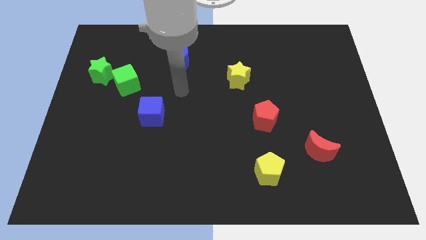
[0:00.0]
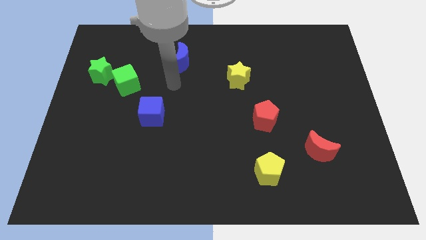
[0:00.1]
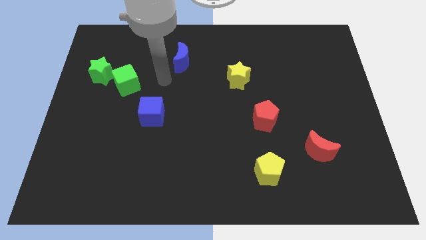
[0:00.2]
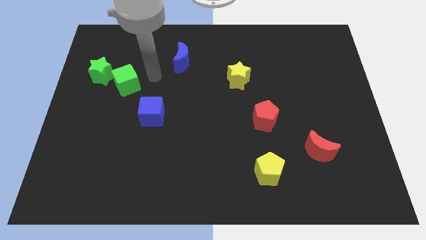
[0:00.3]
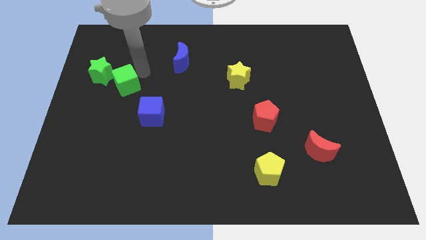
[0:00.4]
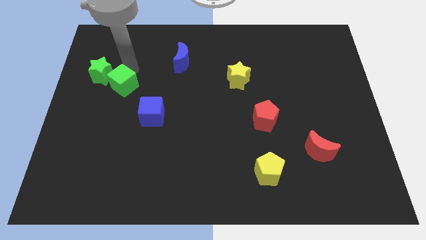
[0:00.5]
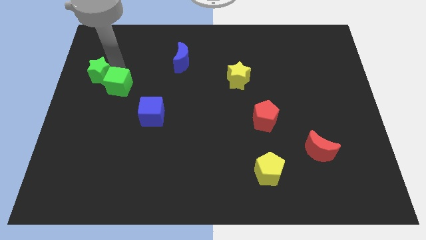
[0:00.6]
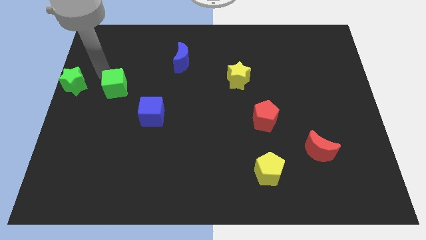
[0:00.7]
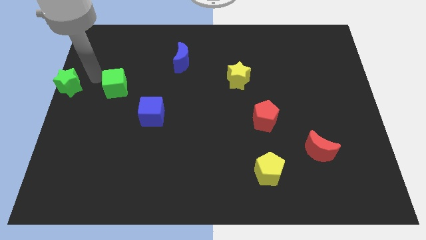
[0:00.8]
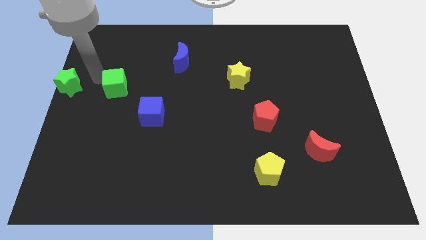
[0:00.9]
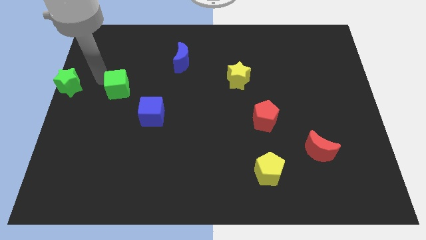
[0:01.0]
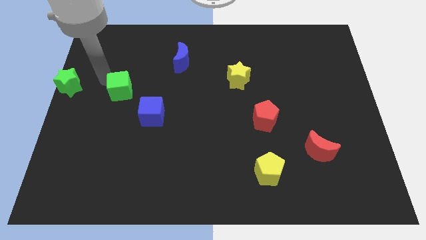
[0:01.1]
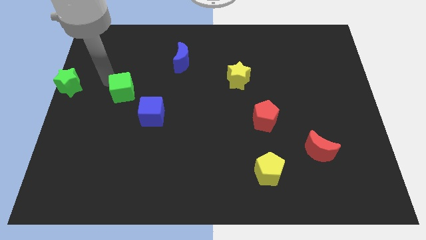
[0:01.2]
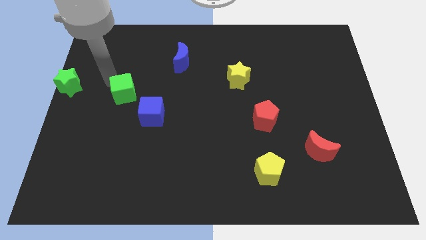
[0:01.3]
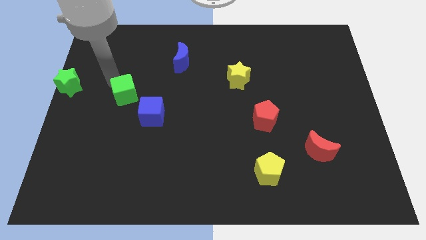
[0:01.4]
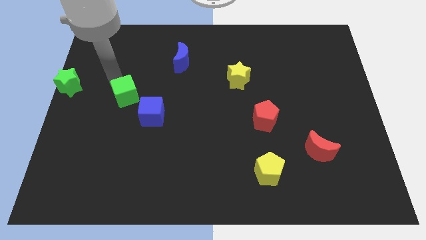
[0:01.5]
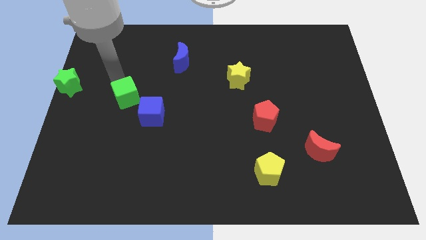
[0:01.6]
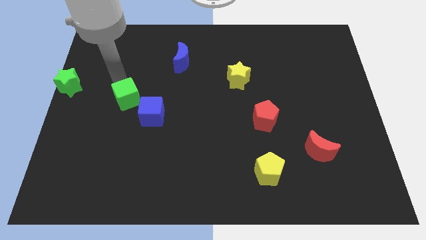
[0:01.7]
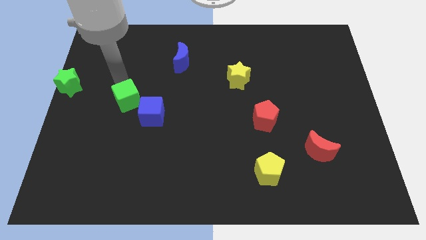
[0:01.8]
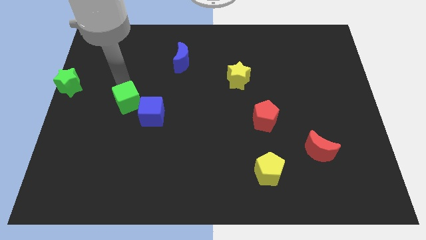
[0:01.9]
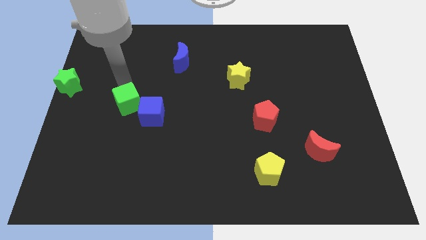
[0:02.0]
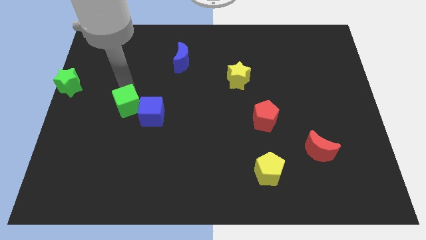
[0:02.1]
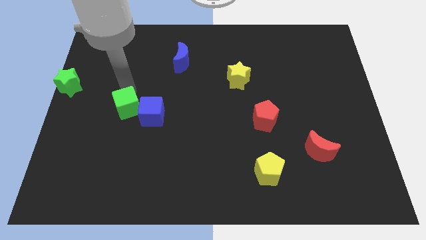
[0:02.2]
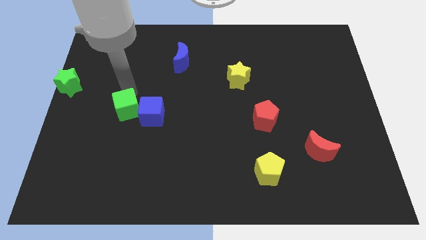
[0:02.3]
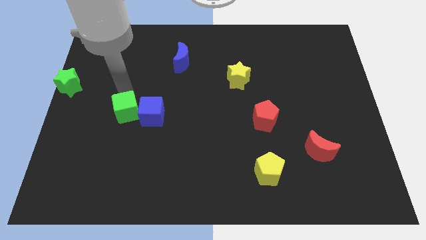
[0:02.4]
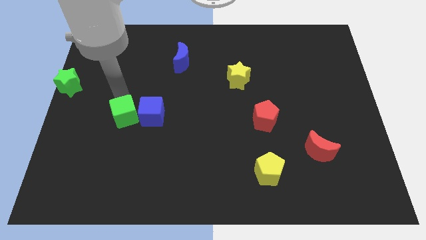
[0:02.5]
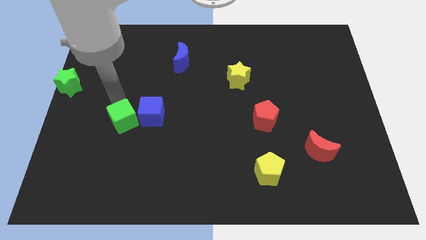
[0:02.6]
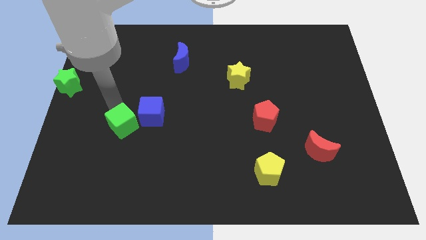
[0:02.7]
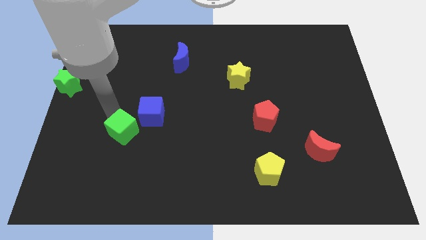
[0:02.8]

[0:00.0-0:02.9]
slide the green cube somewhat diagonally down and to the right

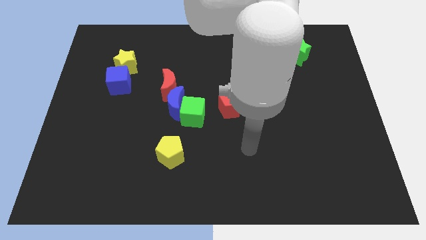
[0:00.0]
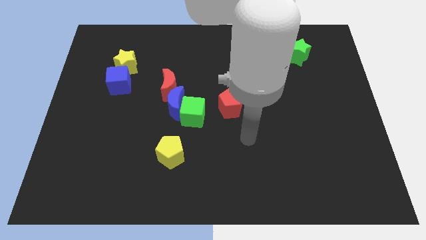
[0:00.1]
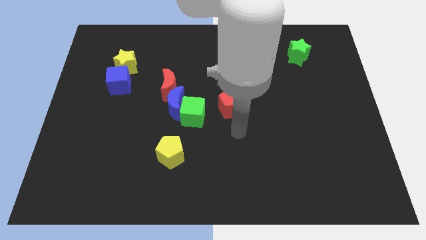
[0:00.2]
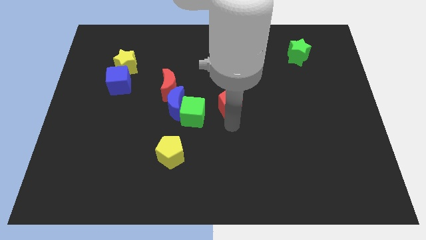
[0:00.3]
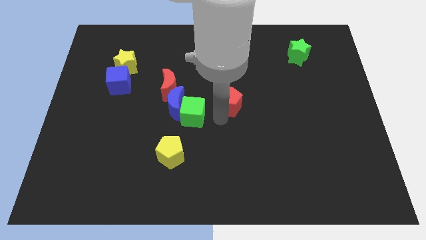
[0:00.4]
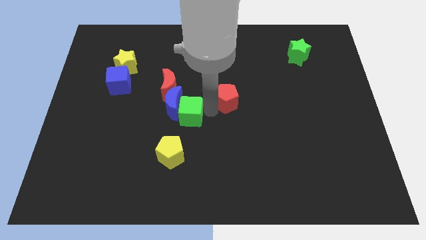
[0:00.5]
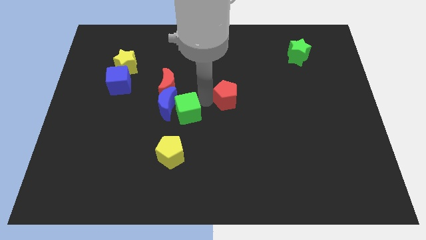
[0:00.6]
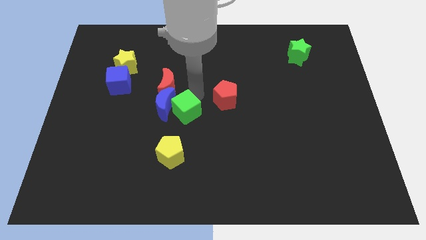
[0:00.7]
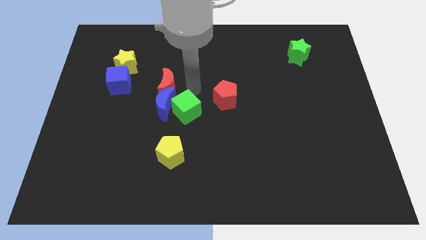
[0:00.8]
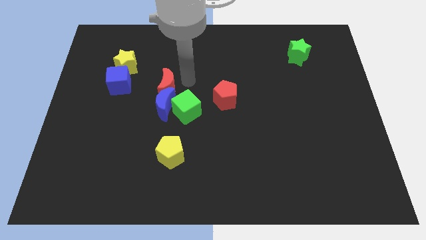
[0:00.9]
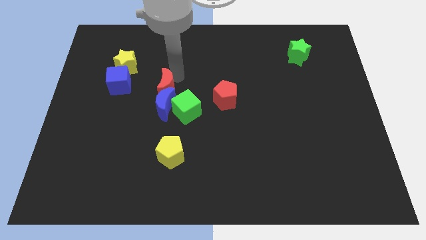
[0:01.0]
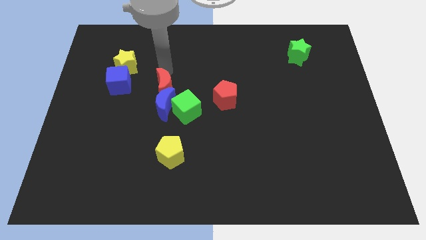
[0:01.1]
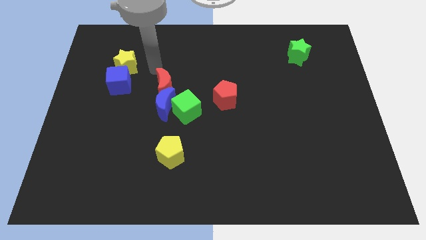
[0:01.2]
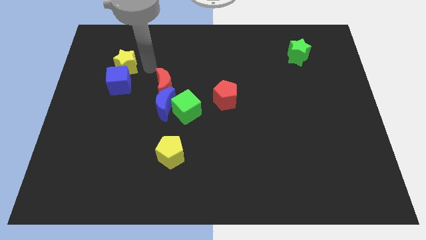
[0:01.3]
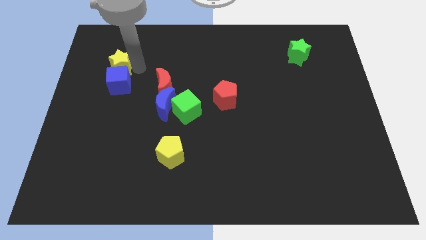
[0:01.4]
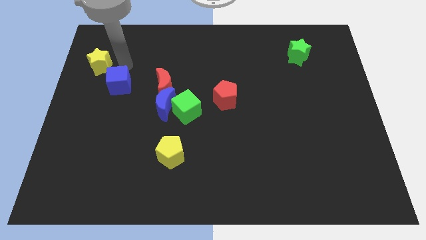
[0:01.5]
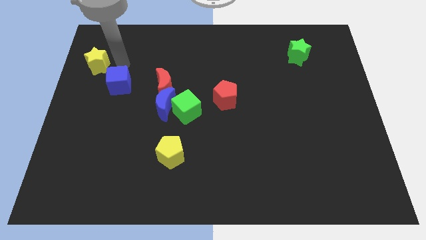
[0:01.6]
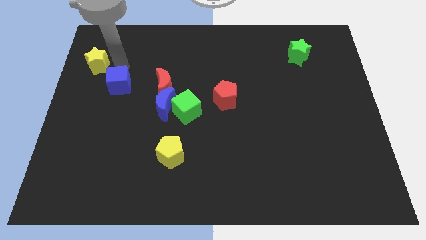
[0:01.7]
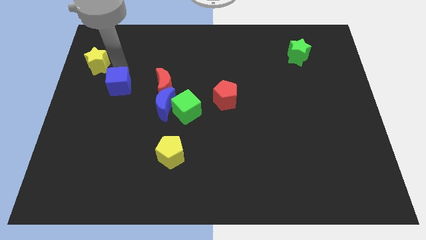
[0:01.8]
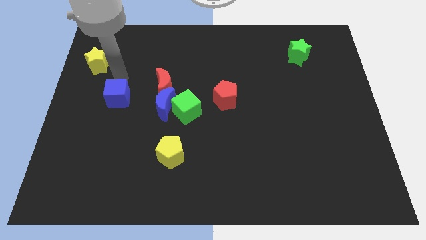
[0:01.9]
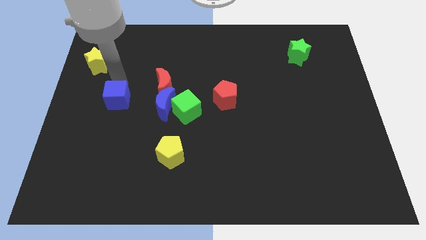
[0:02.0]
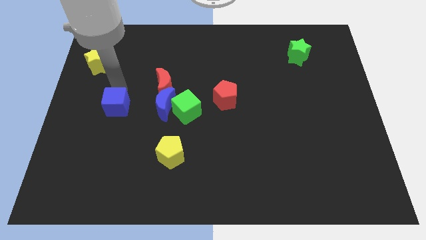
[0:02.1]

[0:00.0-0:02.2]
push the blue cube a little bit downwards

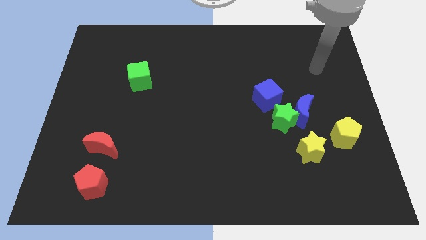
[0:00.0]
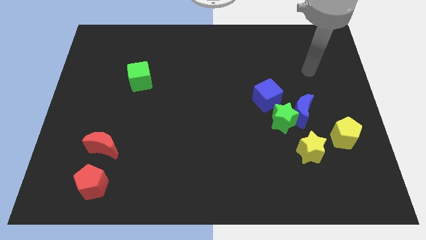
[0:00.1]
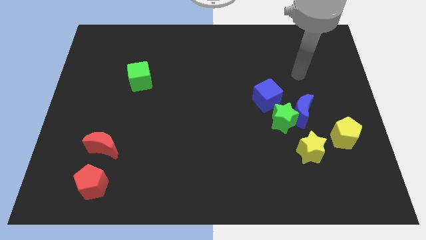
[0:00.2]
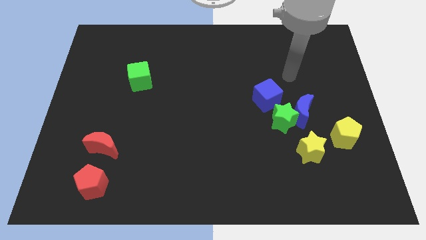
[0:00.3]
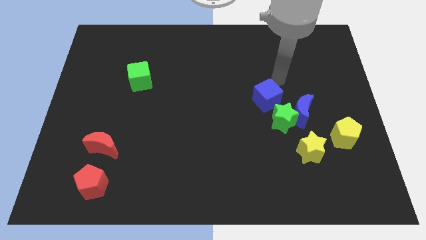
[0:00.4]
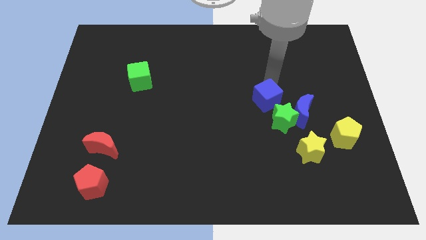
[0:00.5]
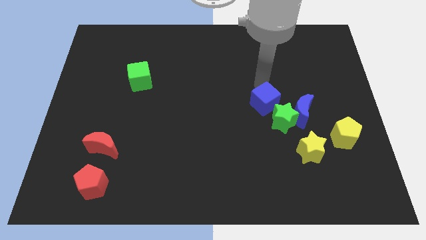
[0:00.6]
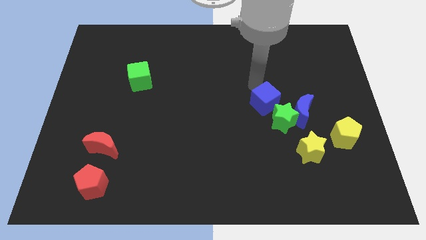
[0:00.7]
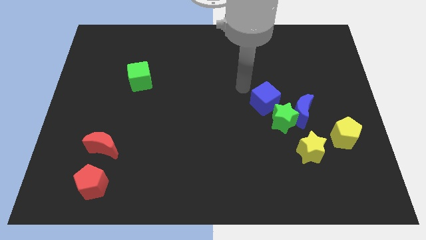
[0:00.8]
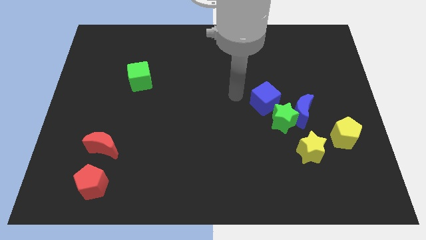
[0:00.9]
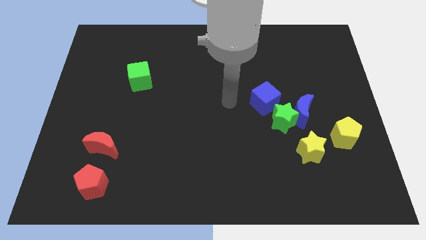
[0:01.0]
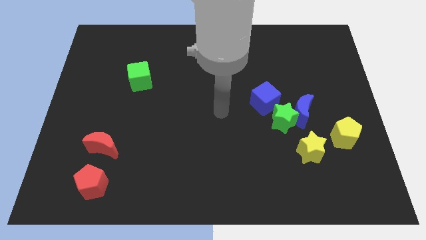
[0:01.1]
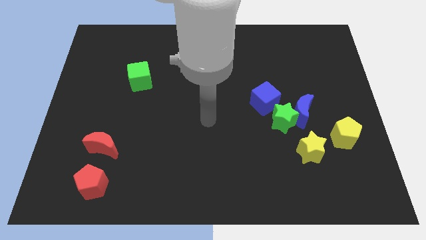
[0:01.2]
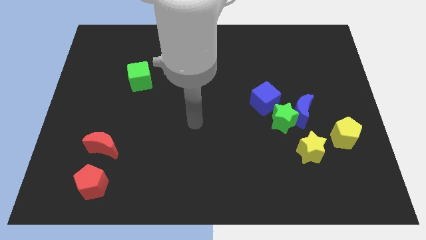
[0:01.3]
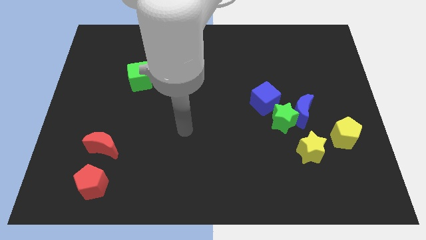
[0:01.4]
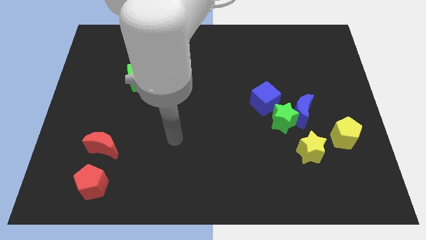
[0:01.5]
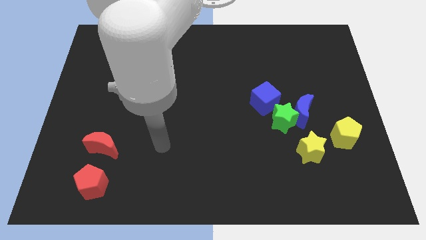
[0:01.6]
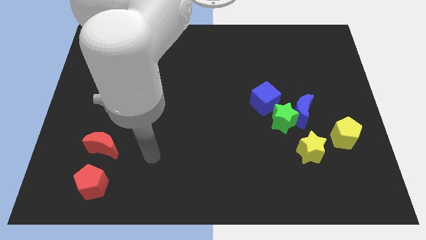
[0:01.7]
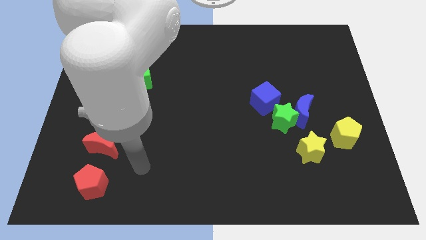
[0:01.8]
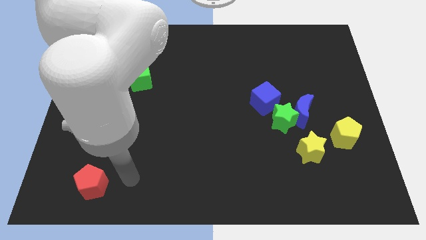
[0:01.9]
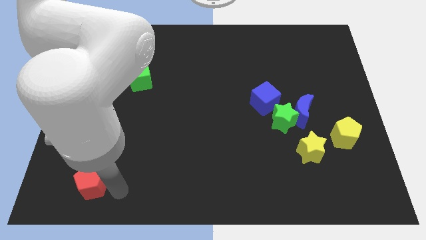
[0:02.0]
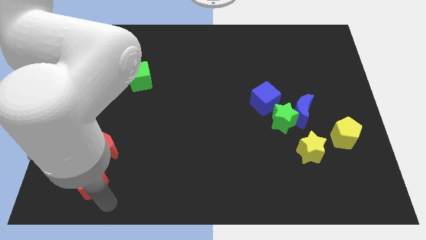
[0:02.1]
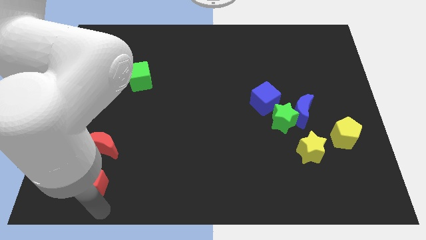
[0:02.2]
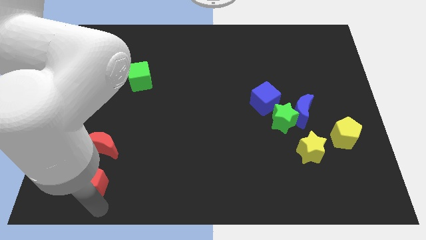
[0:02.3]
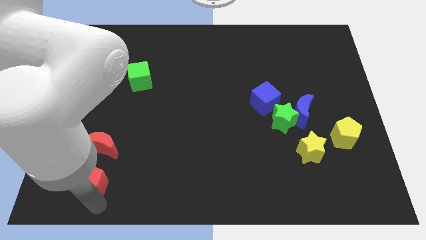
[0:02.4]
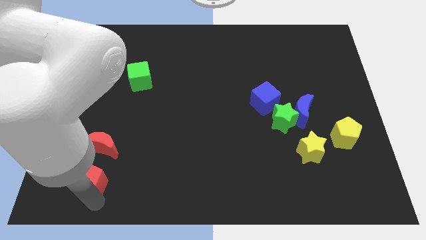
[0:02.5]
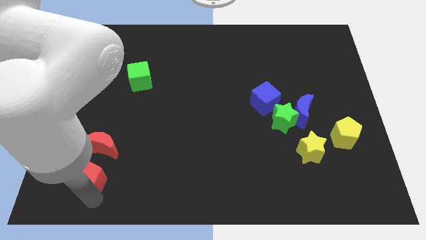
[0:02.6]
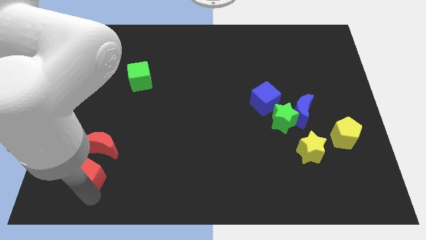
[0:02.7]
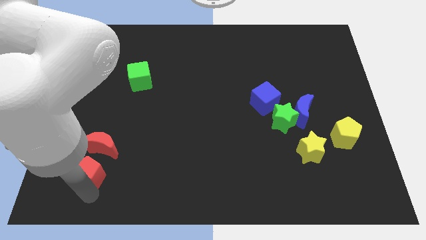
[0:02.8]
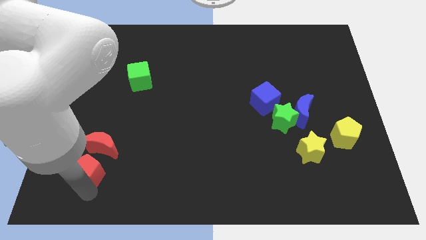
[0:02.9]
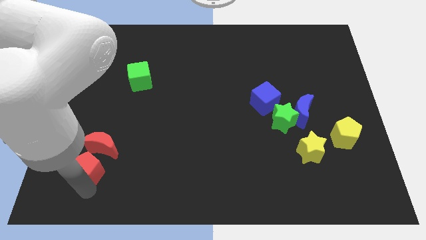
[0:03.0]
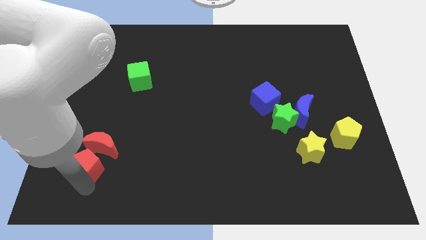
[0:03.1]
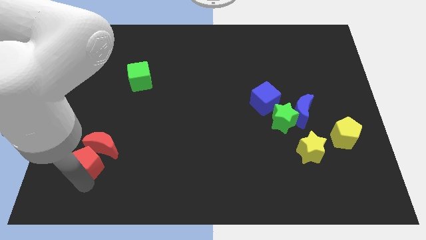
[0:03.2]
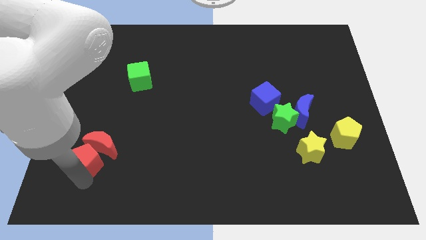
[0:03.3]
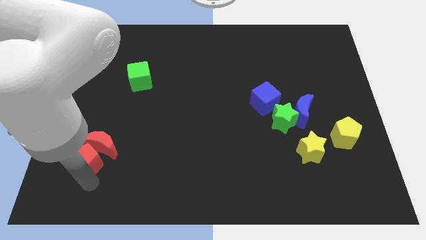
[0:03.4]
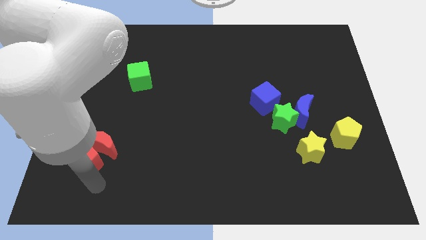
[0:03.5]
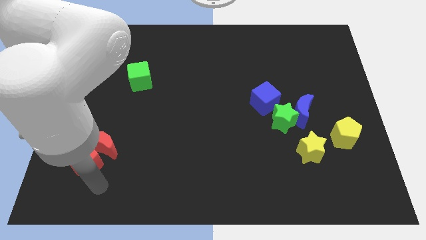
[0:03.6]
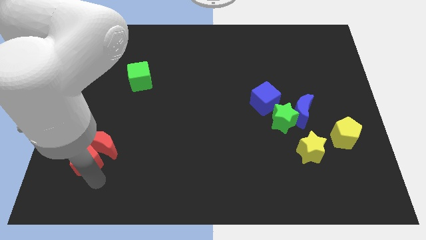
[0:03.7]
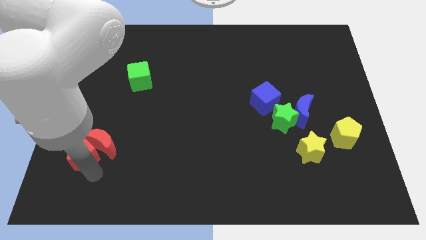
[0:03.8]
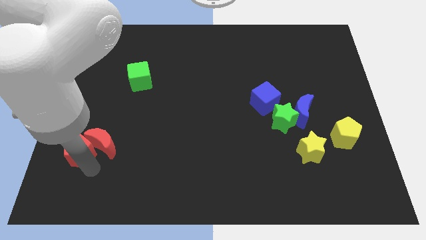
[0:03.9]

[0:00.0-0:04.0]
push the red pentagon a little bit upwards
